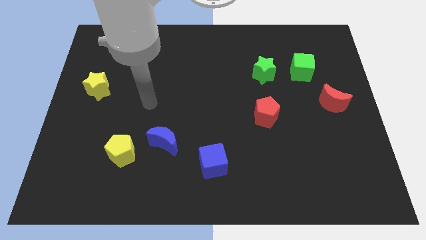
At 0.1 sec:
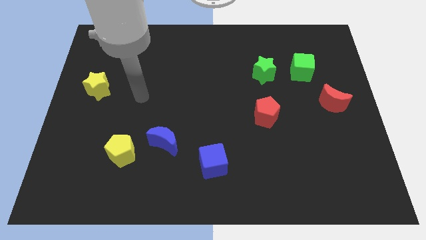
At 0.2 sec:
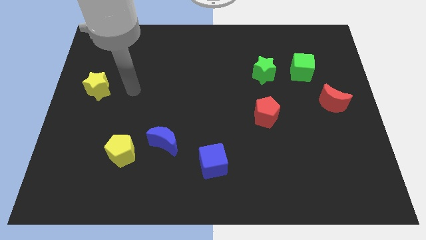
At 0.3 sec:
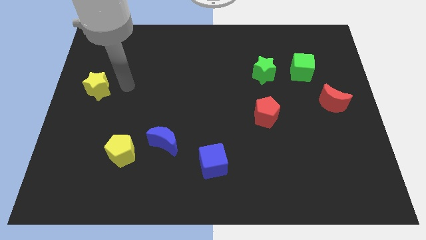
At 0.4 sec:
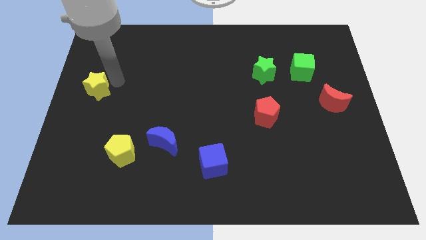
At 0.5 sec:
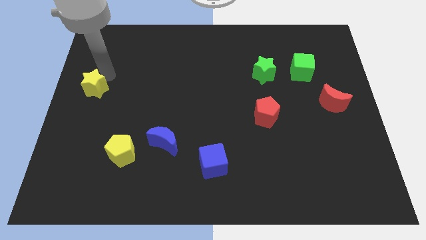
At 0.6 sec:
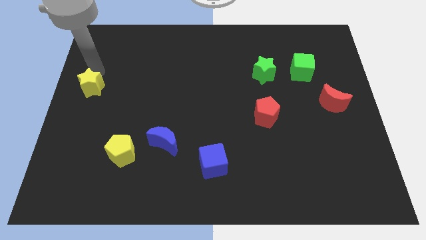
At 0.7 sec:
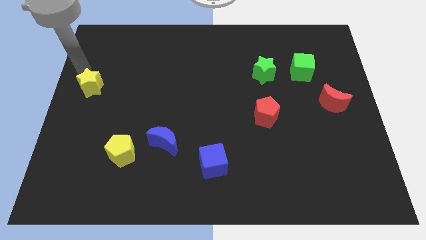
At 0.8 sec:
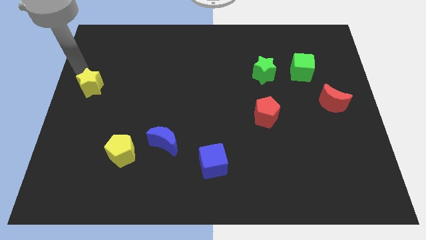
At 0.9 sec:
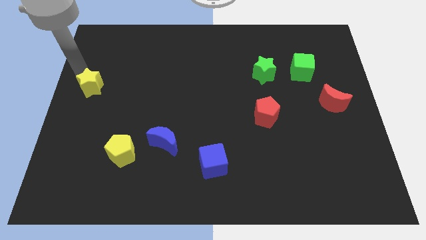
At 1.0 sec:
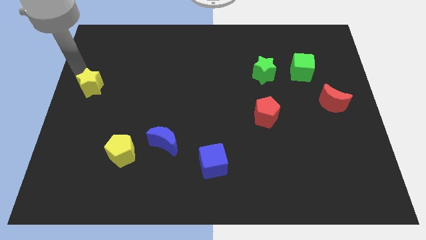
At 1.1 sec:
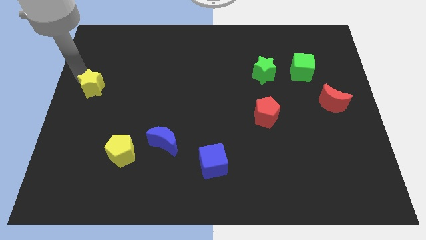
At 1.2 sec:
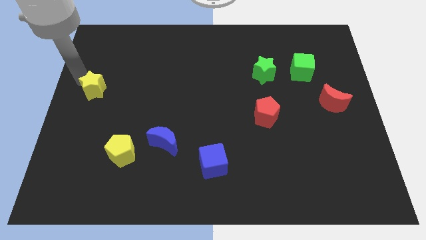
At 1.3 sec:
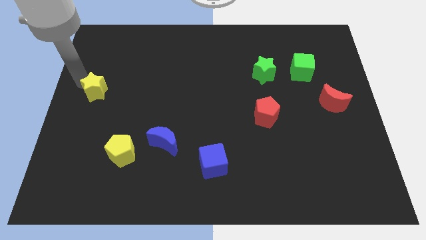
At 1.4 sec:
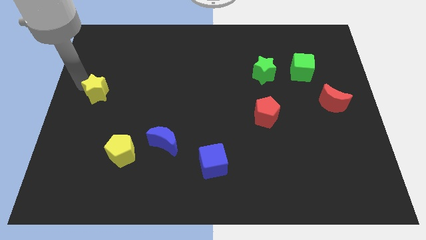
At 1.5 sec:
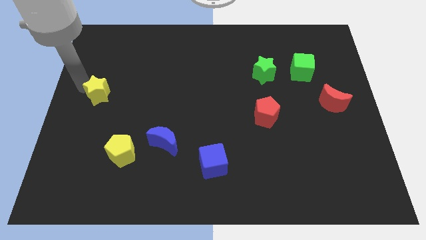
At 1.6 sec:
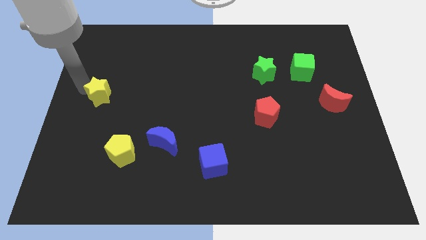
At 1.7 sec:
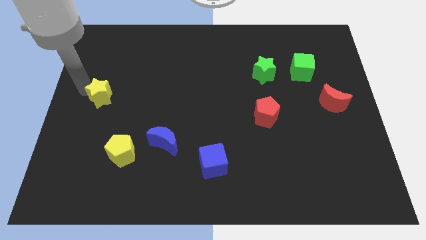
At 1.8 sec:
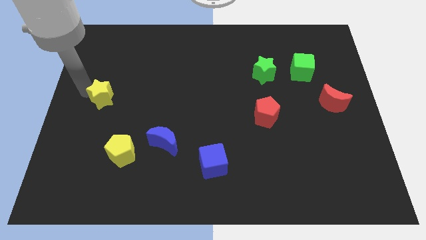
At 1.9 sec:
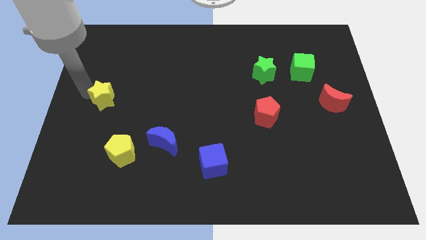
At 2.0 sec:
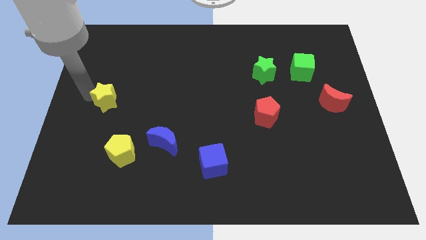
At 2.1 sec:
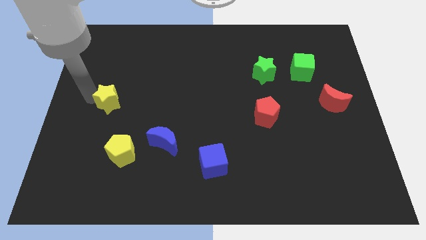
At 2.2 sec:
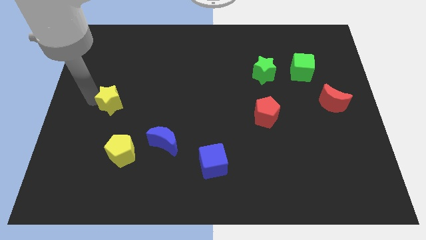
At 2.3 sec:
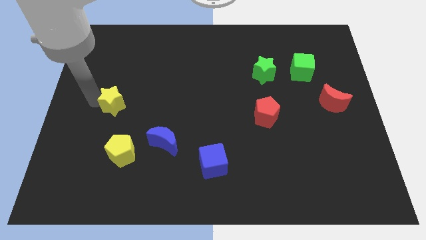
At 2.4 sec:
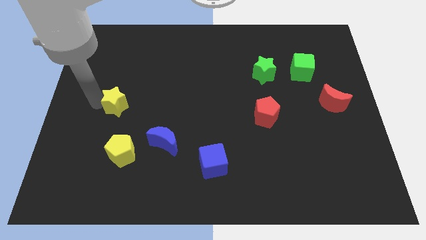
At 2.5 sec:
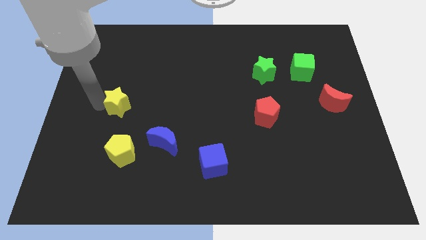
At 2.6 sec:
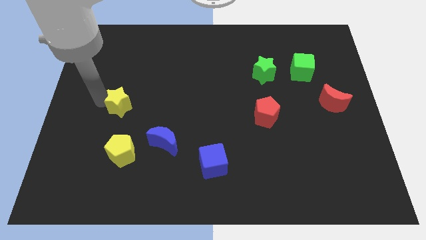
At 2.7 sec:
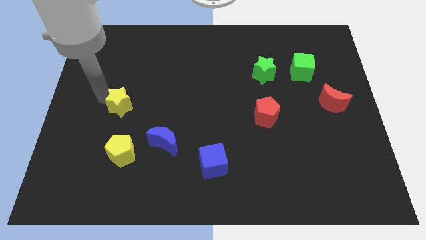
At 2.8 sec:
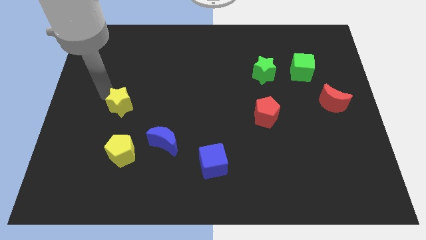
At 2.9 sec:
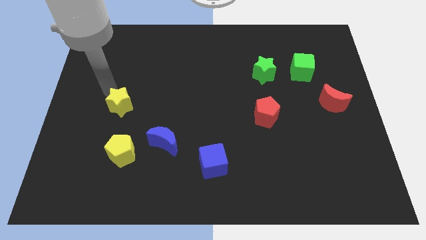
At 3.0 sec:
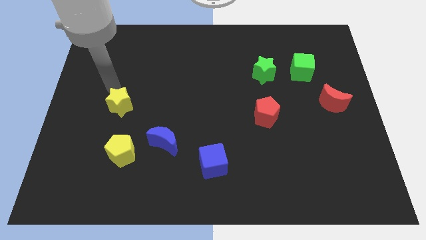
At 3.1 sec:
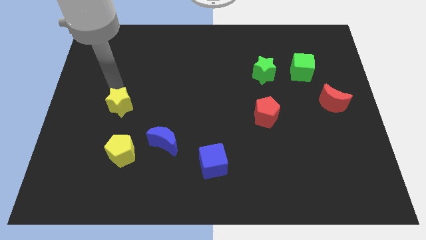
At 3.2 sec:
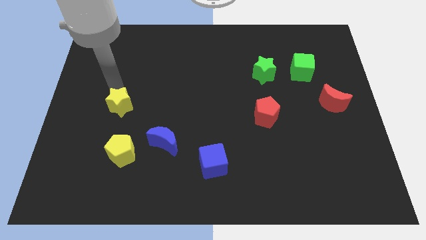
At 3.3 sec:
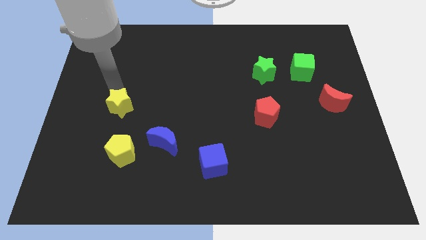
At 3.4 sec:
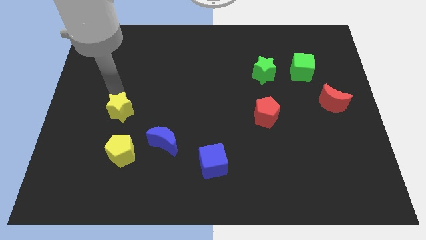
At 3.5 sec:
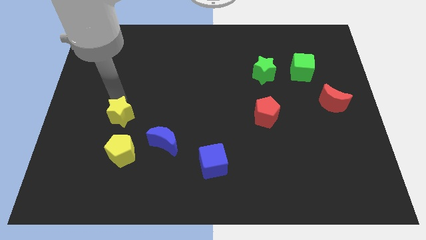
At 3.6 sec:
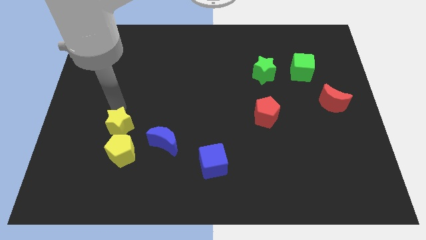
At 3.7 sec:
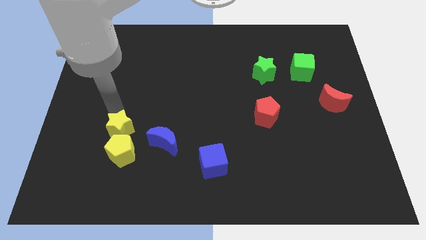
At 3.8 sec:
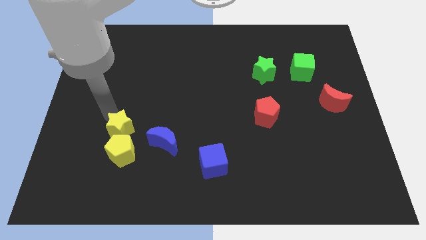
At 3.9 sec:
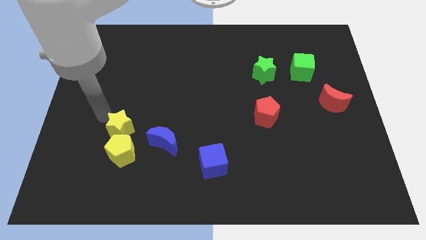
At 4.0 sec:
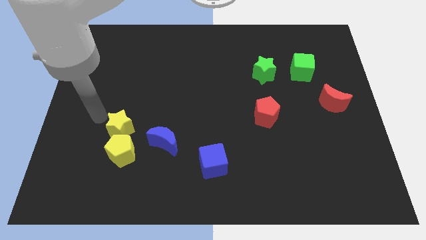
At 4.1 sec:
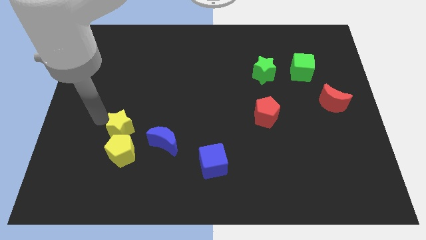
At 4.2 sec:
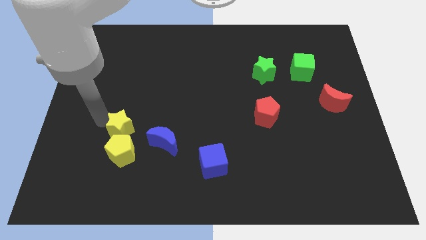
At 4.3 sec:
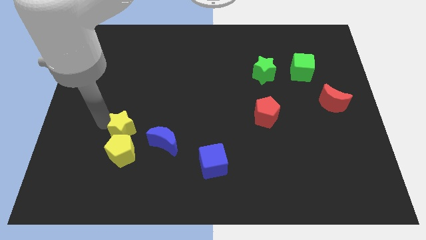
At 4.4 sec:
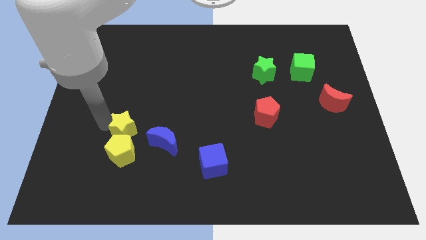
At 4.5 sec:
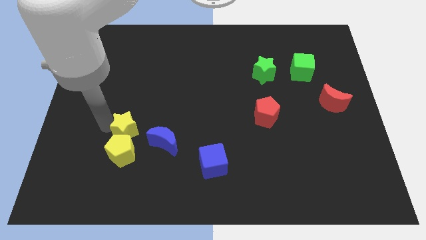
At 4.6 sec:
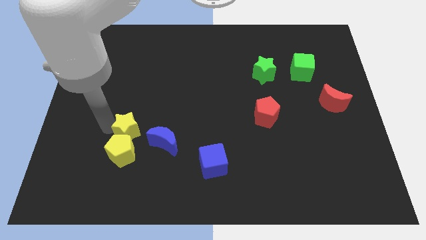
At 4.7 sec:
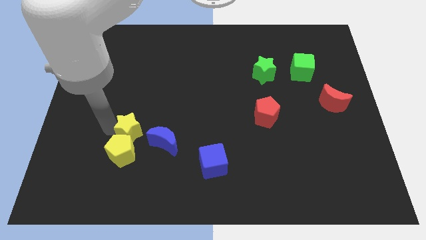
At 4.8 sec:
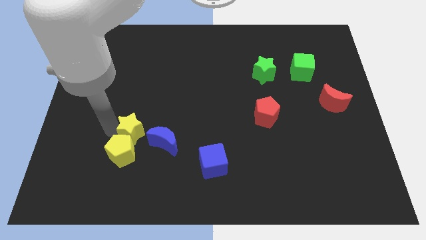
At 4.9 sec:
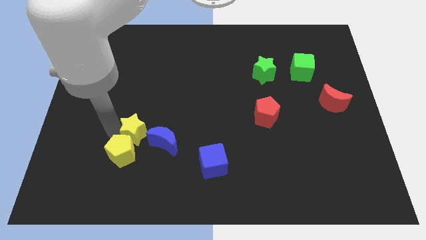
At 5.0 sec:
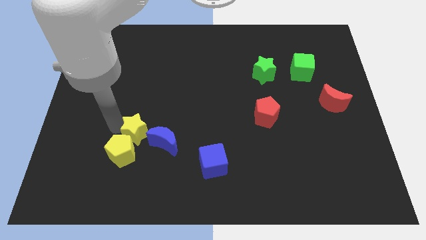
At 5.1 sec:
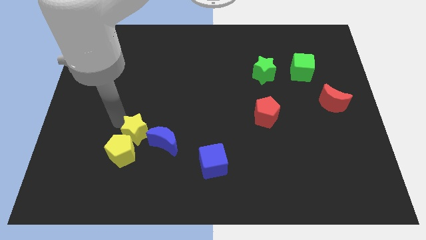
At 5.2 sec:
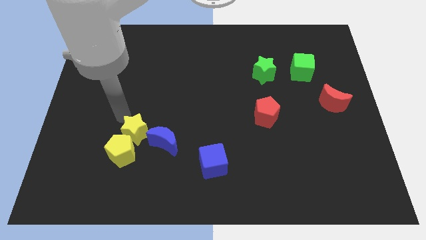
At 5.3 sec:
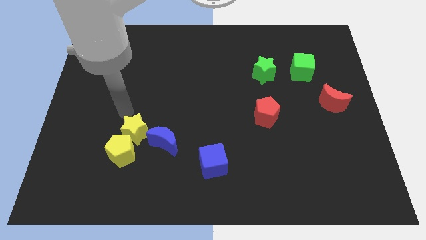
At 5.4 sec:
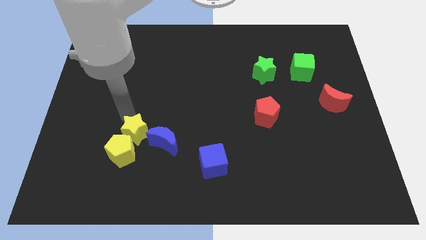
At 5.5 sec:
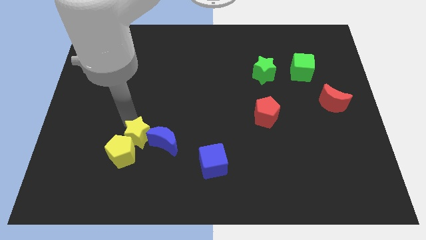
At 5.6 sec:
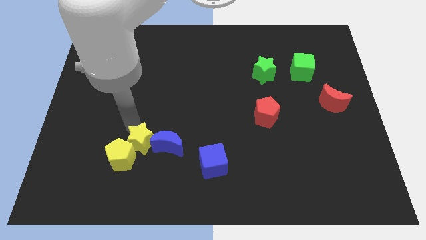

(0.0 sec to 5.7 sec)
move the yellow star diagonally downwards and to the right

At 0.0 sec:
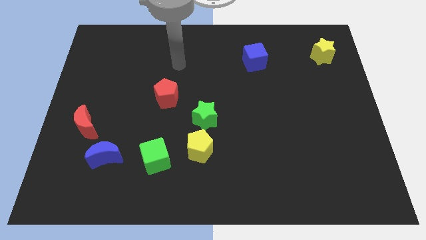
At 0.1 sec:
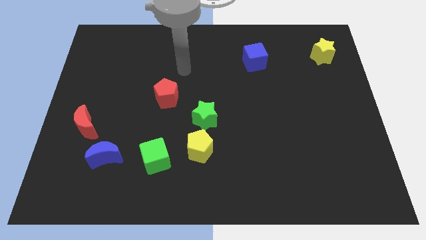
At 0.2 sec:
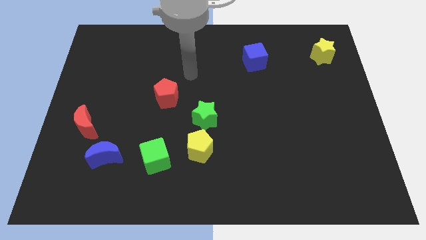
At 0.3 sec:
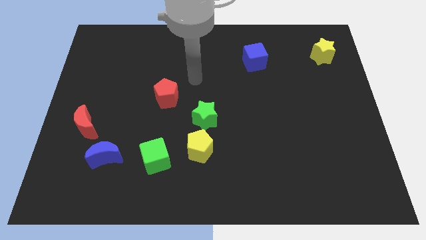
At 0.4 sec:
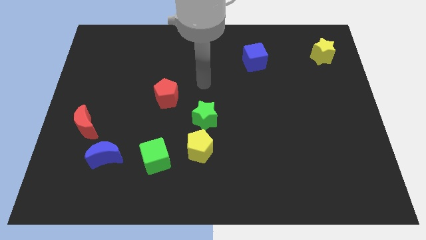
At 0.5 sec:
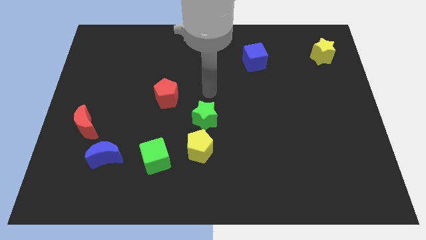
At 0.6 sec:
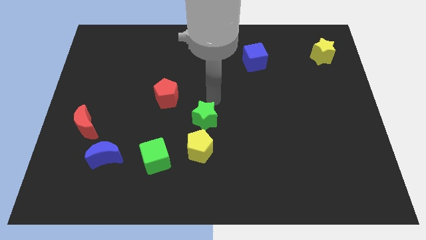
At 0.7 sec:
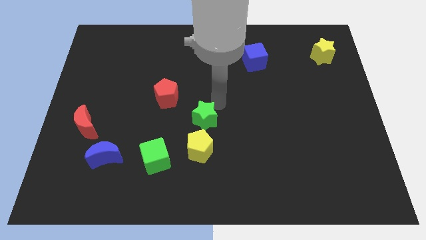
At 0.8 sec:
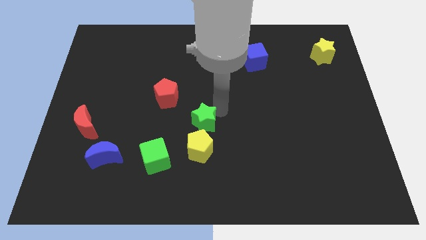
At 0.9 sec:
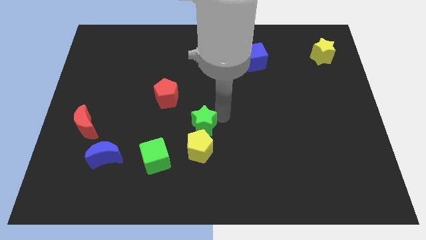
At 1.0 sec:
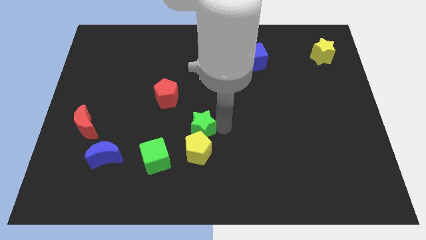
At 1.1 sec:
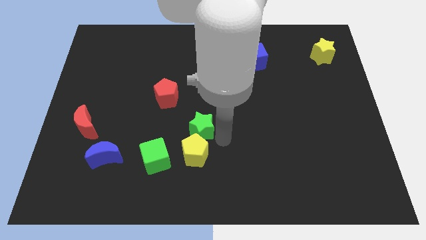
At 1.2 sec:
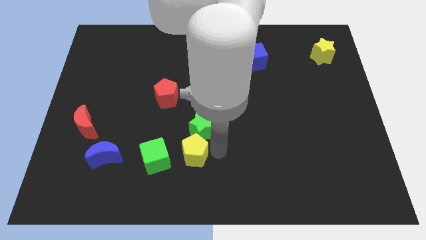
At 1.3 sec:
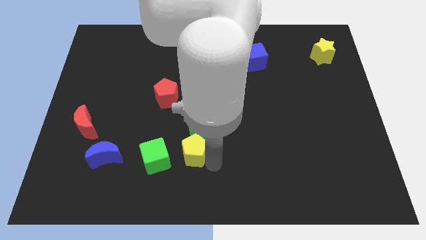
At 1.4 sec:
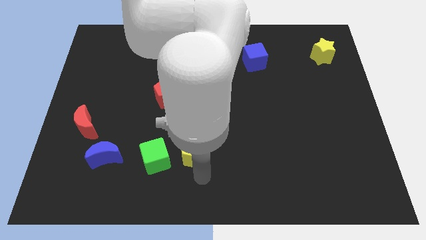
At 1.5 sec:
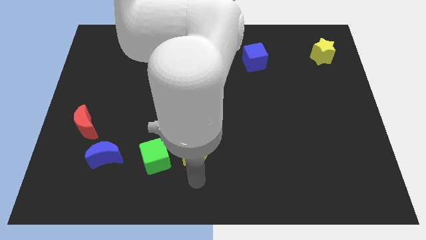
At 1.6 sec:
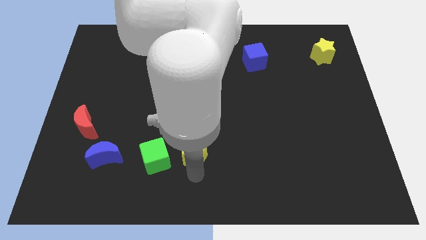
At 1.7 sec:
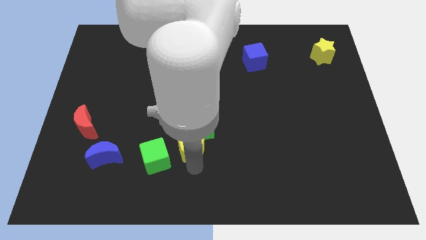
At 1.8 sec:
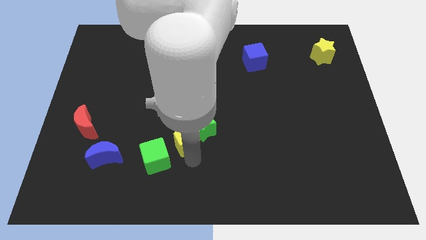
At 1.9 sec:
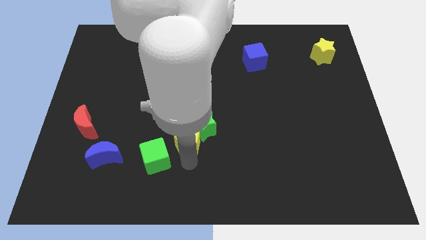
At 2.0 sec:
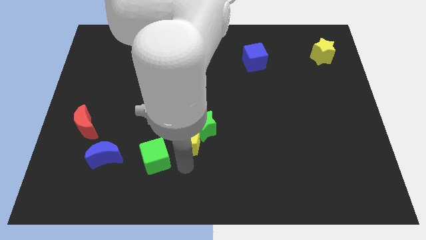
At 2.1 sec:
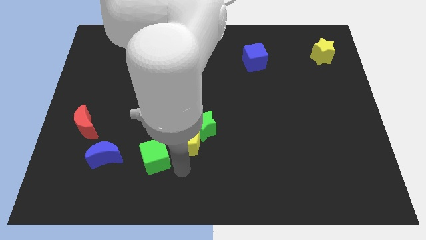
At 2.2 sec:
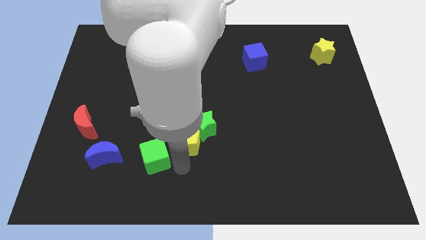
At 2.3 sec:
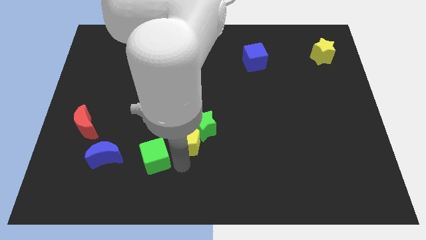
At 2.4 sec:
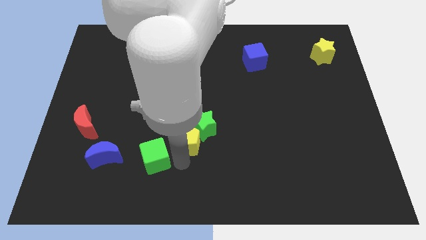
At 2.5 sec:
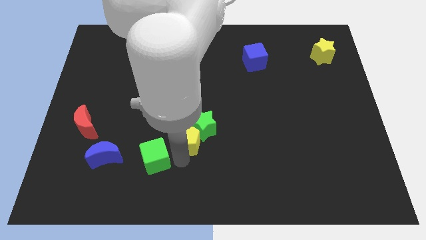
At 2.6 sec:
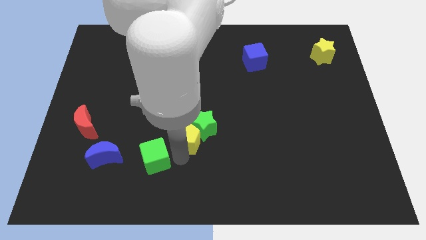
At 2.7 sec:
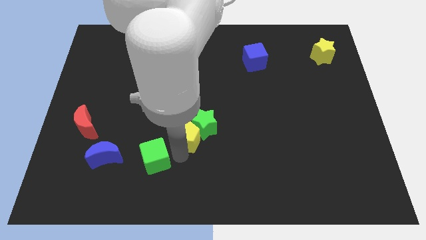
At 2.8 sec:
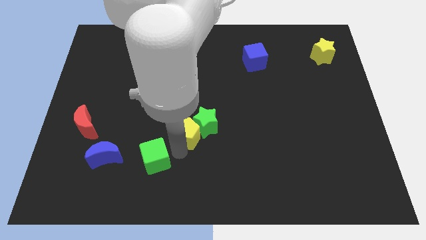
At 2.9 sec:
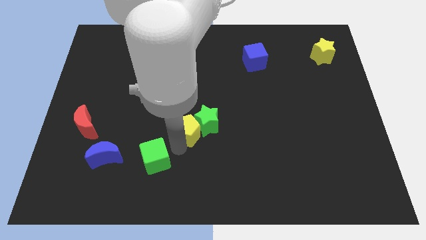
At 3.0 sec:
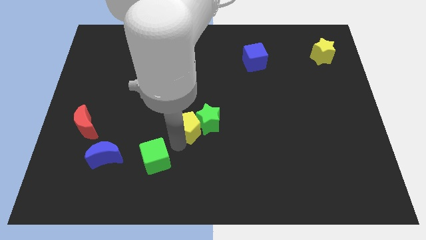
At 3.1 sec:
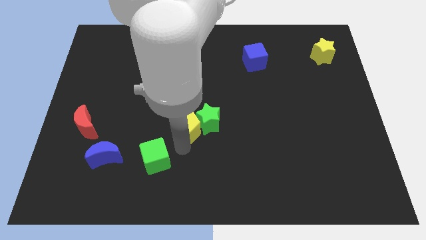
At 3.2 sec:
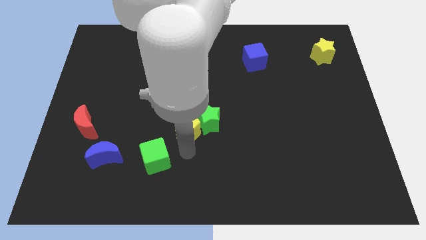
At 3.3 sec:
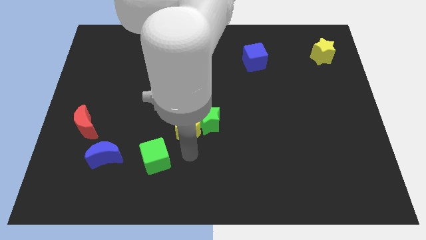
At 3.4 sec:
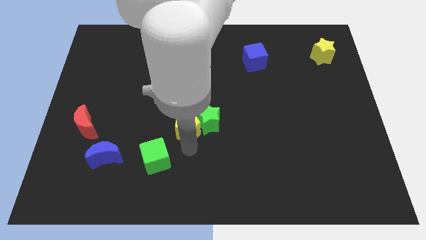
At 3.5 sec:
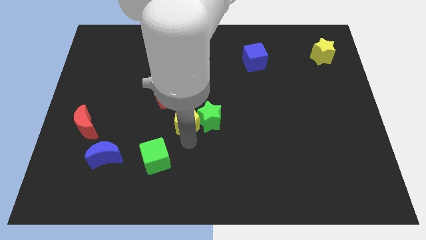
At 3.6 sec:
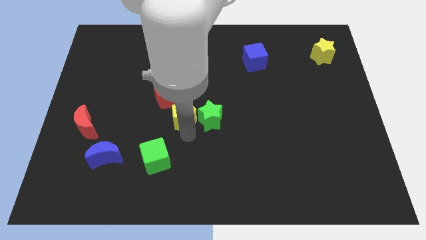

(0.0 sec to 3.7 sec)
slightly move the yellow pentagon up
